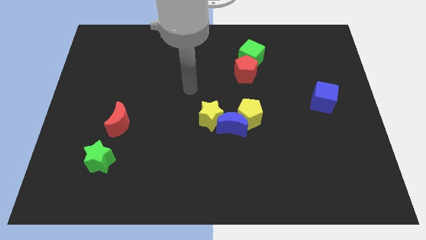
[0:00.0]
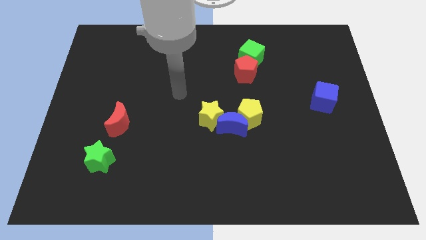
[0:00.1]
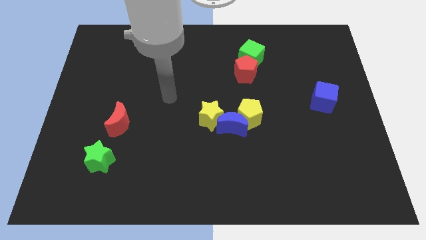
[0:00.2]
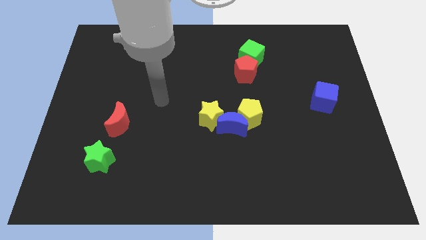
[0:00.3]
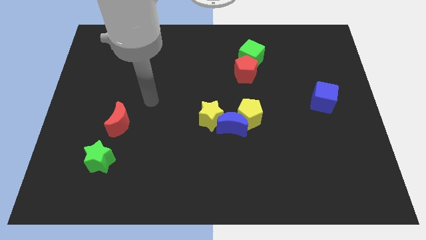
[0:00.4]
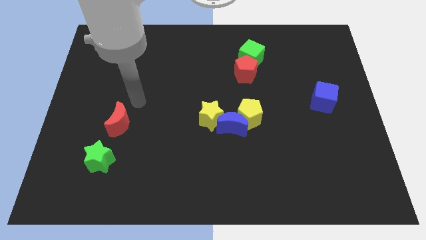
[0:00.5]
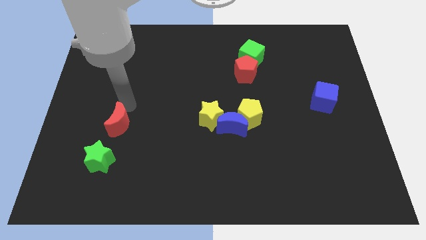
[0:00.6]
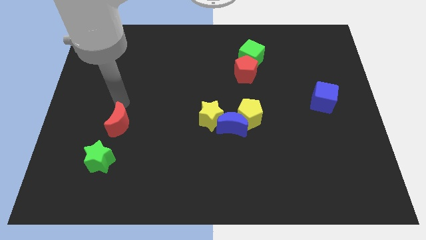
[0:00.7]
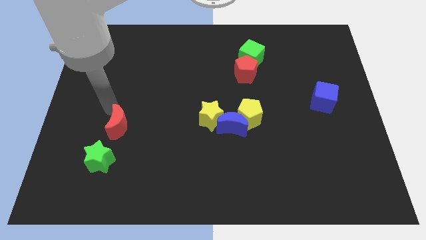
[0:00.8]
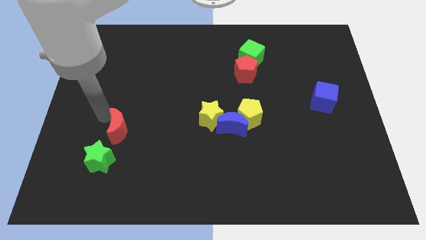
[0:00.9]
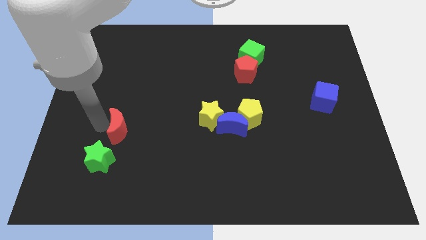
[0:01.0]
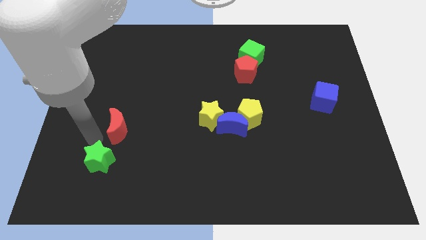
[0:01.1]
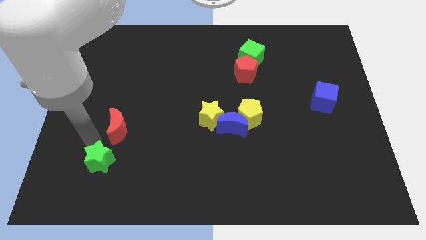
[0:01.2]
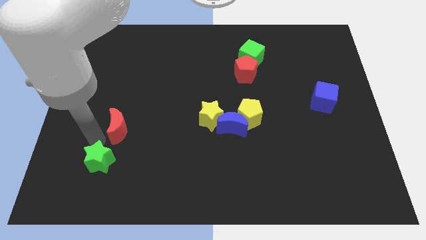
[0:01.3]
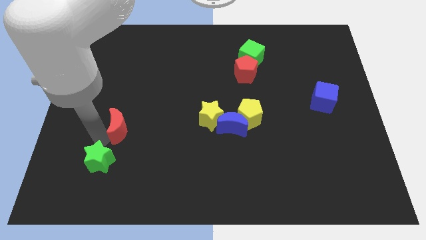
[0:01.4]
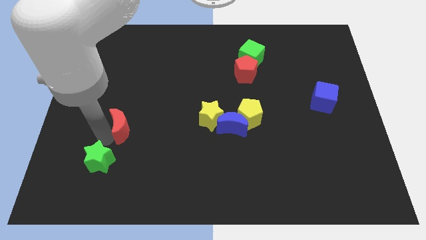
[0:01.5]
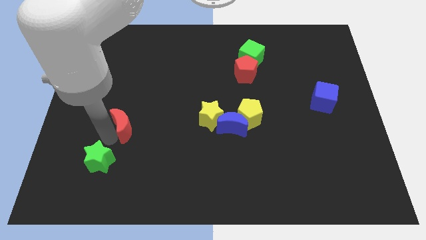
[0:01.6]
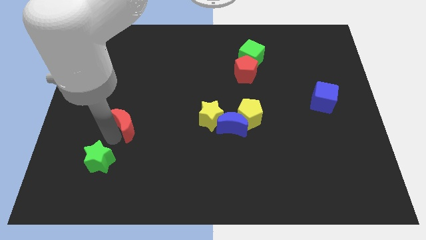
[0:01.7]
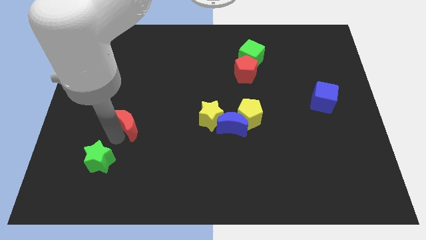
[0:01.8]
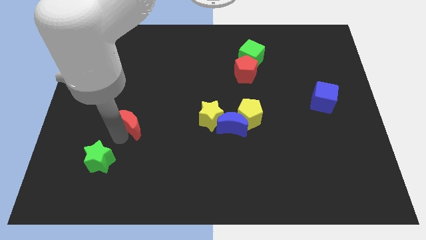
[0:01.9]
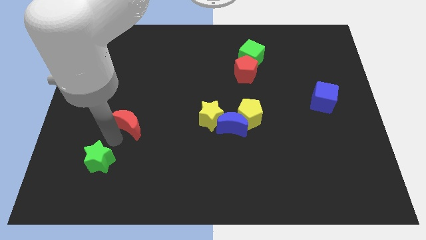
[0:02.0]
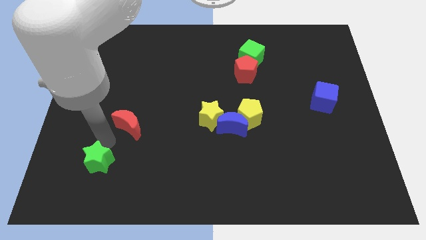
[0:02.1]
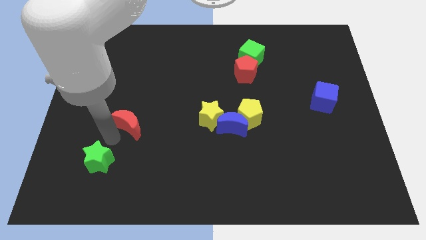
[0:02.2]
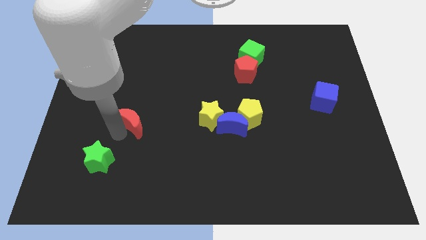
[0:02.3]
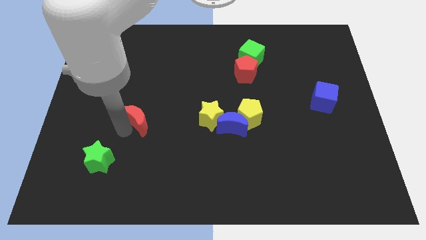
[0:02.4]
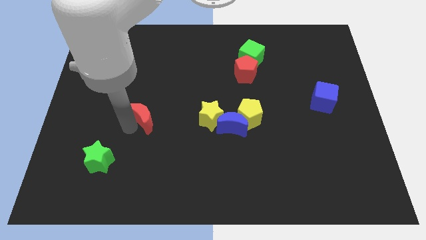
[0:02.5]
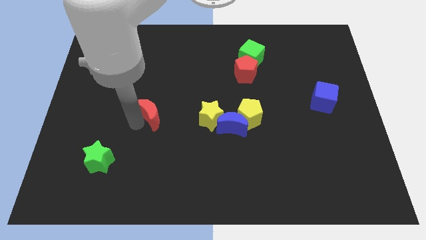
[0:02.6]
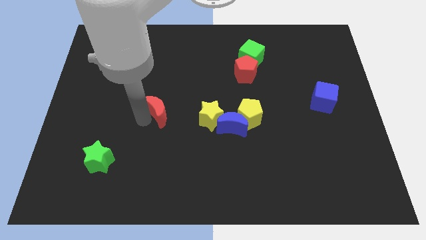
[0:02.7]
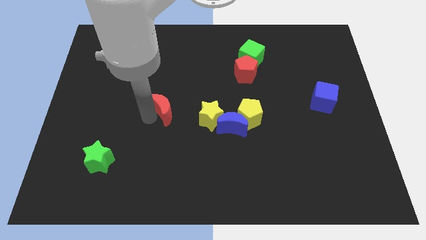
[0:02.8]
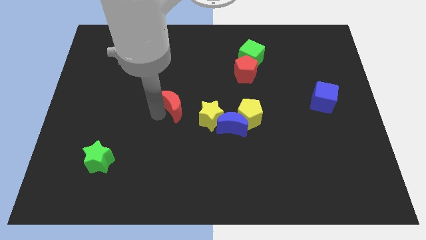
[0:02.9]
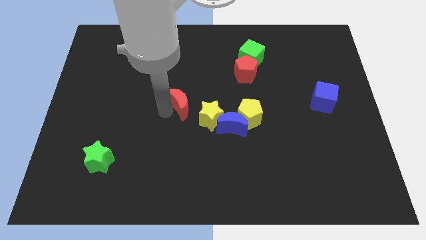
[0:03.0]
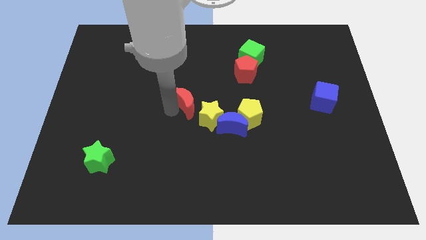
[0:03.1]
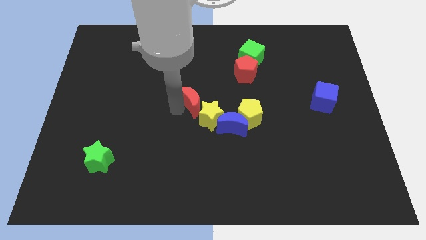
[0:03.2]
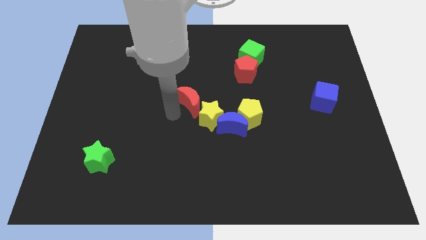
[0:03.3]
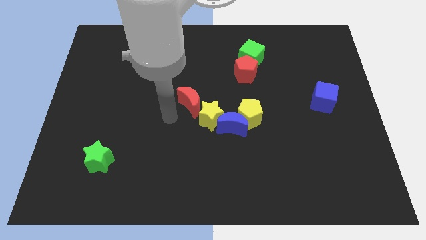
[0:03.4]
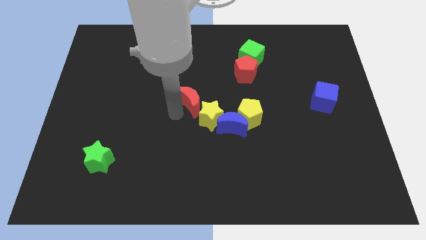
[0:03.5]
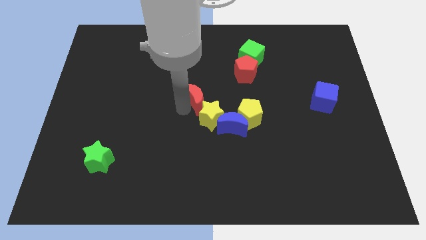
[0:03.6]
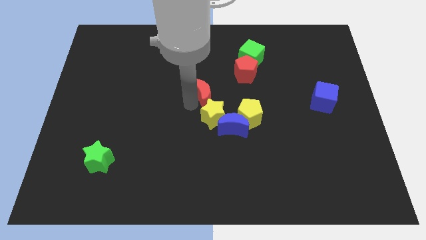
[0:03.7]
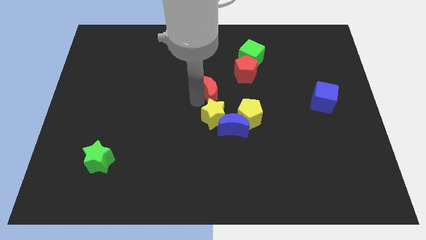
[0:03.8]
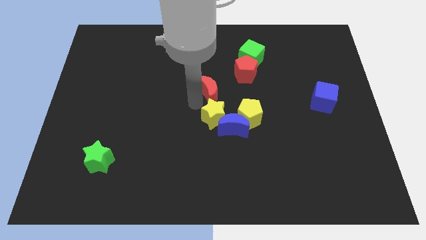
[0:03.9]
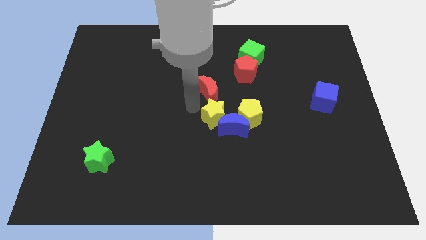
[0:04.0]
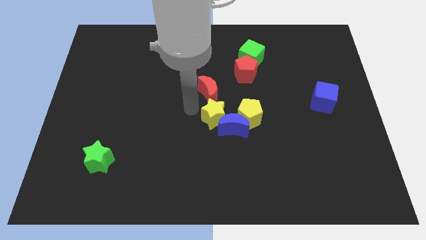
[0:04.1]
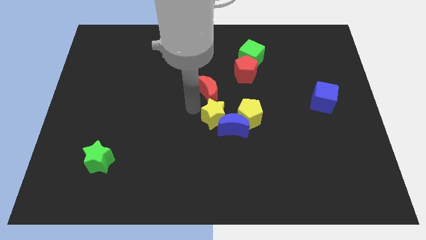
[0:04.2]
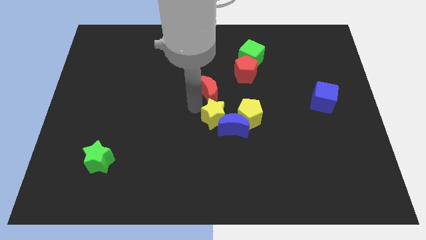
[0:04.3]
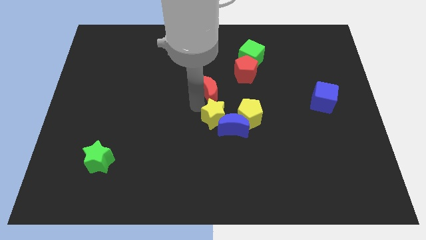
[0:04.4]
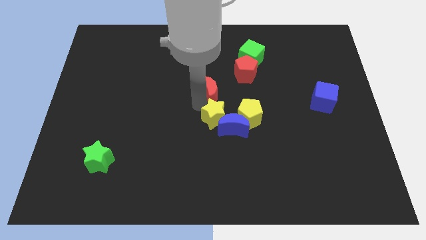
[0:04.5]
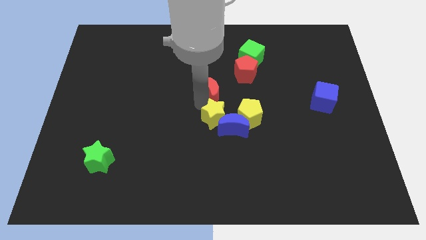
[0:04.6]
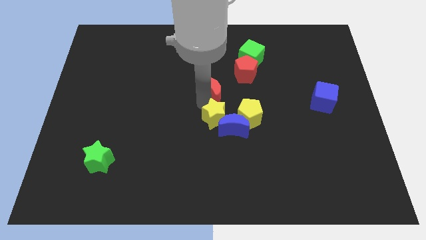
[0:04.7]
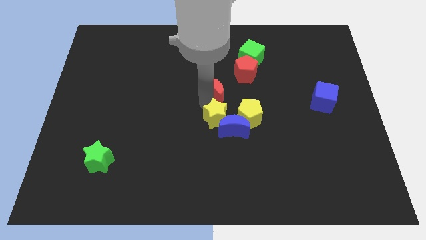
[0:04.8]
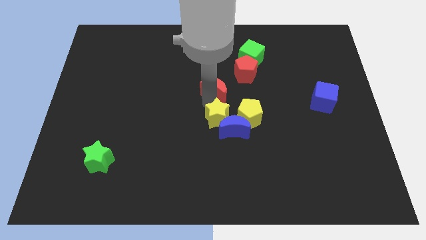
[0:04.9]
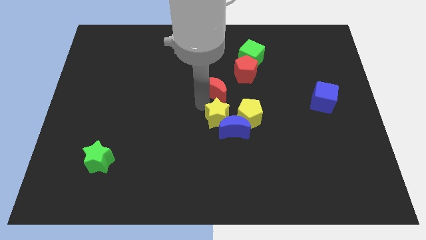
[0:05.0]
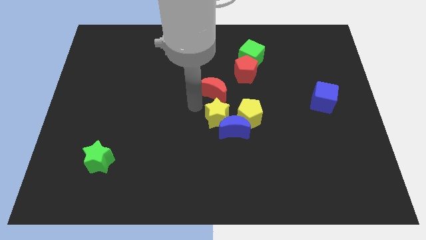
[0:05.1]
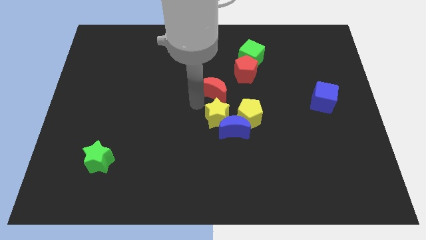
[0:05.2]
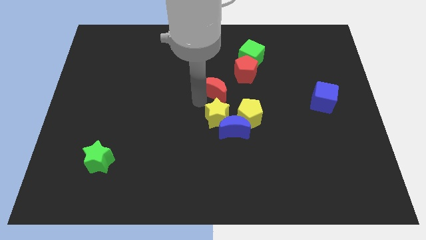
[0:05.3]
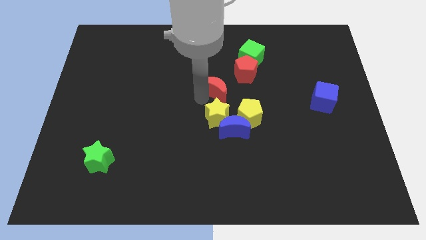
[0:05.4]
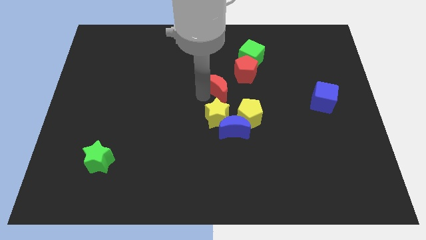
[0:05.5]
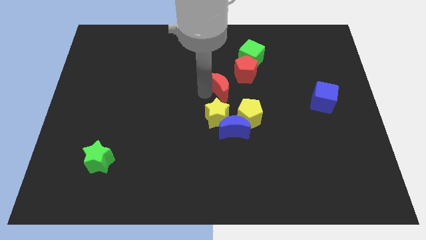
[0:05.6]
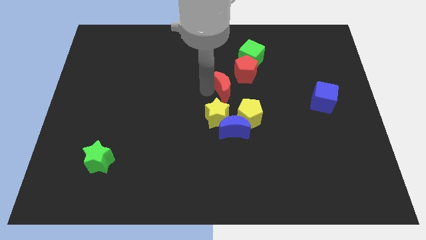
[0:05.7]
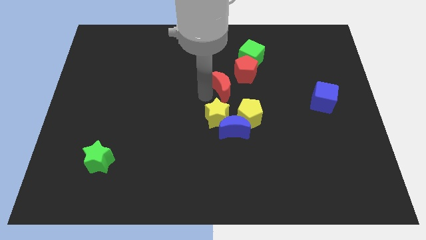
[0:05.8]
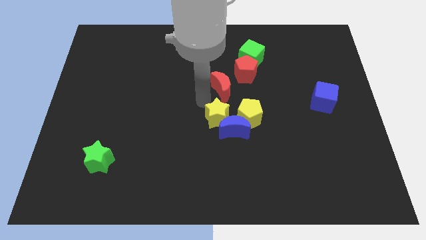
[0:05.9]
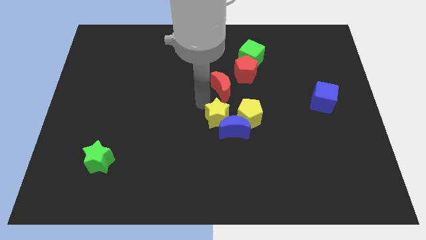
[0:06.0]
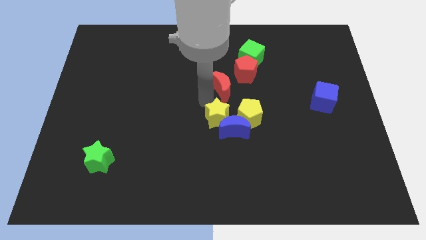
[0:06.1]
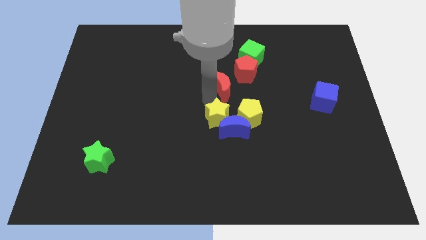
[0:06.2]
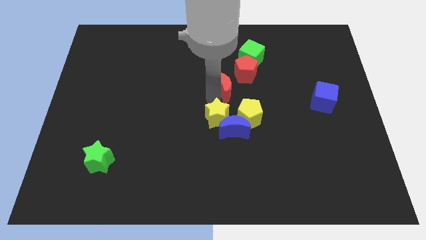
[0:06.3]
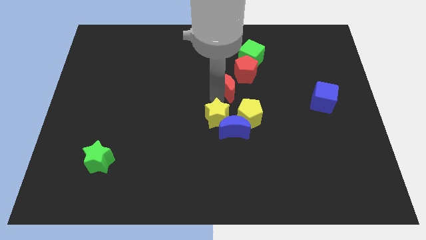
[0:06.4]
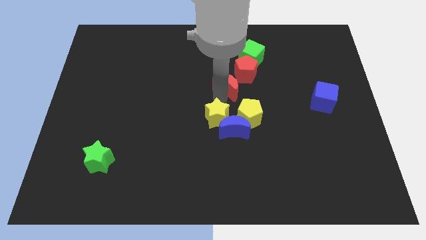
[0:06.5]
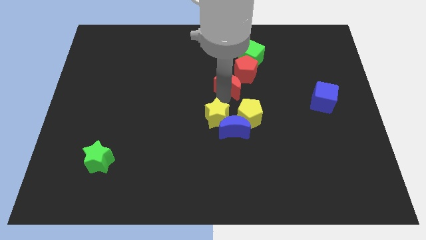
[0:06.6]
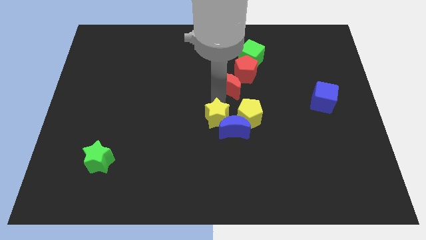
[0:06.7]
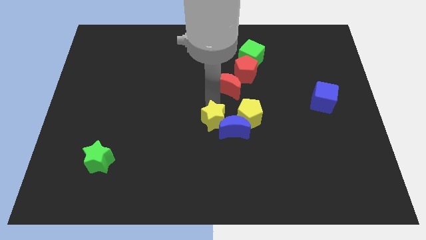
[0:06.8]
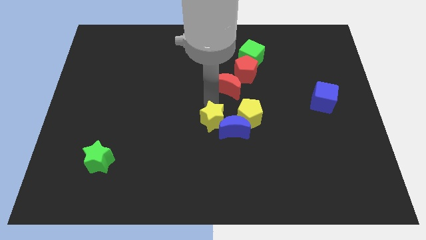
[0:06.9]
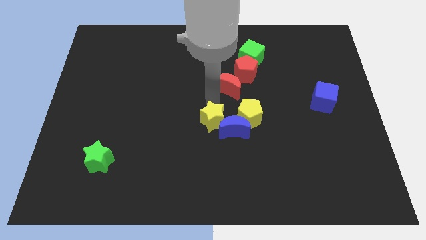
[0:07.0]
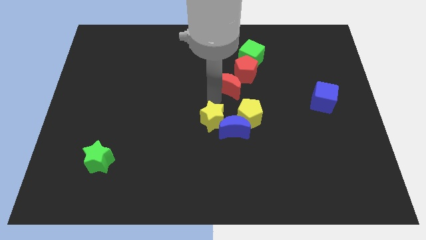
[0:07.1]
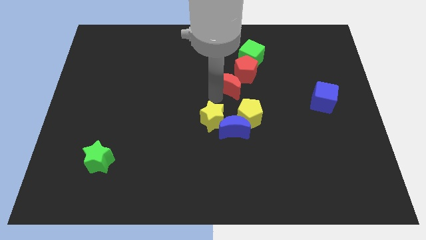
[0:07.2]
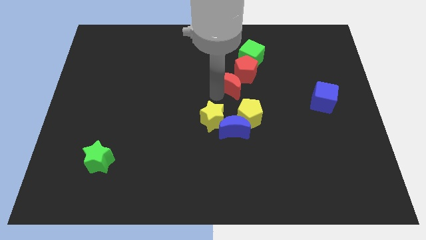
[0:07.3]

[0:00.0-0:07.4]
push the red moon next to the red pentagon
